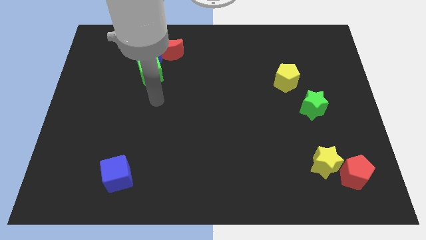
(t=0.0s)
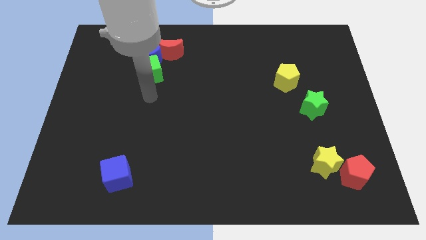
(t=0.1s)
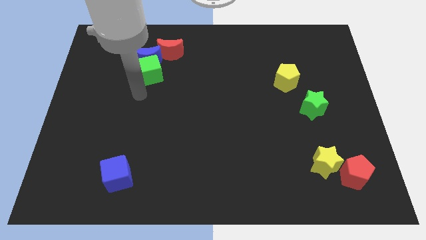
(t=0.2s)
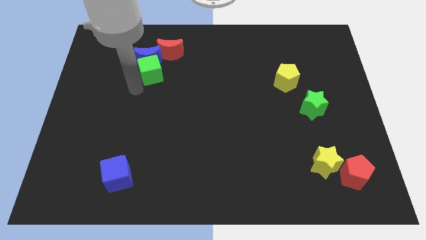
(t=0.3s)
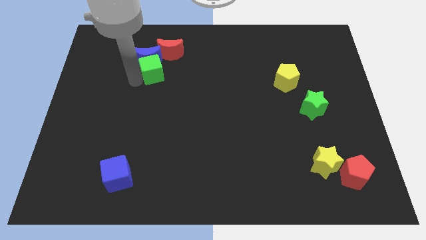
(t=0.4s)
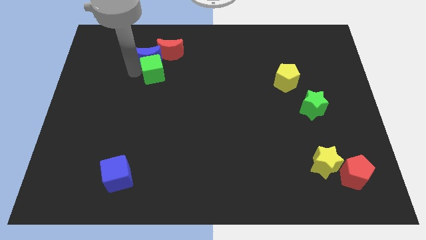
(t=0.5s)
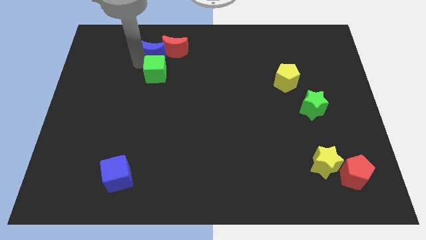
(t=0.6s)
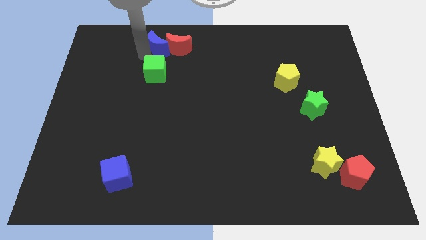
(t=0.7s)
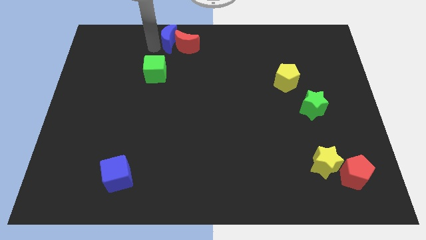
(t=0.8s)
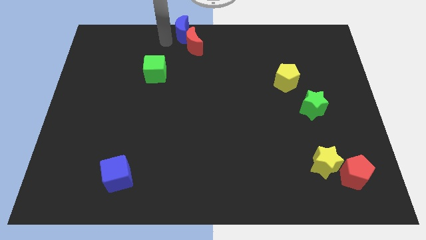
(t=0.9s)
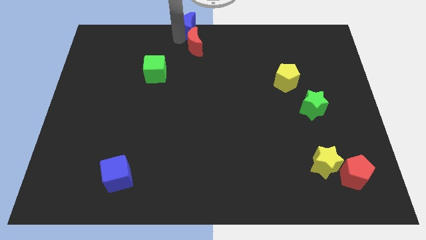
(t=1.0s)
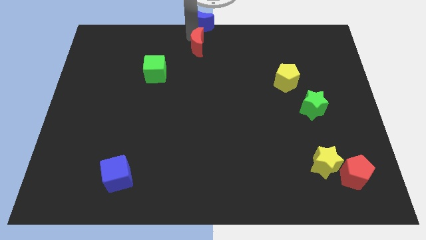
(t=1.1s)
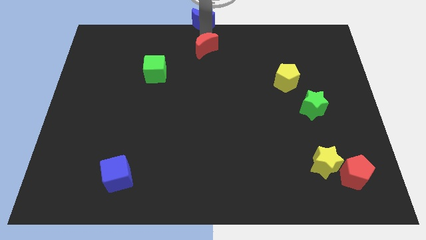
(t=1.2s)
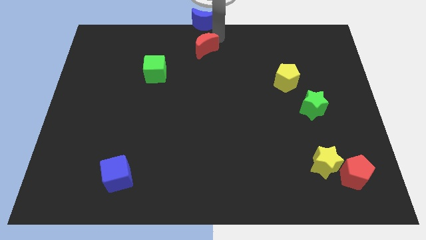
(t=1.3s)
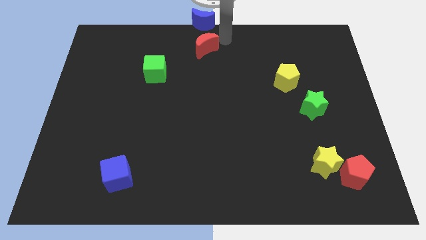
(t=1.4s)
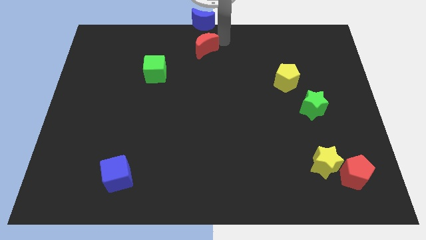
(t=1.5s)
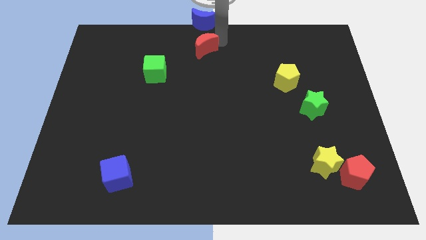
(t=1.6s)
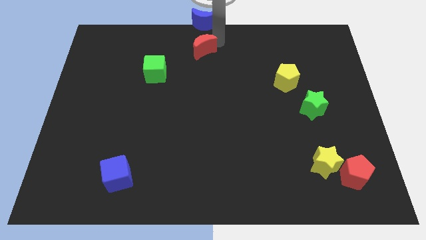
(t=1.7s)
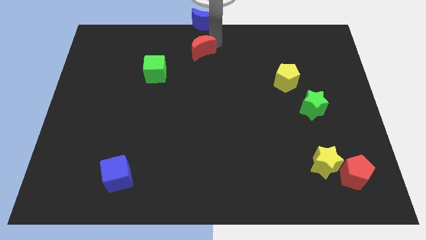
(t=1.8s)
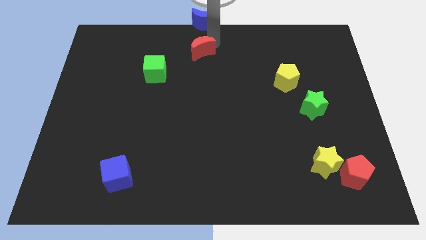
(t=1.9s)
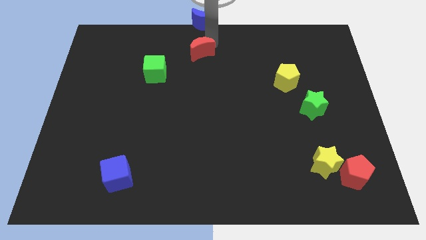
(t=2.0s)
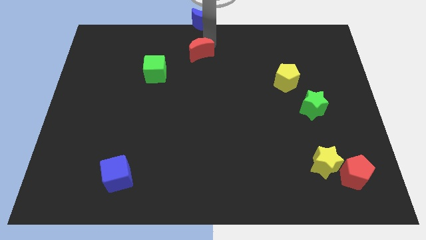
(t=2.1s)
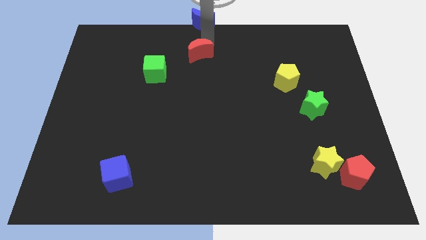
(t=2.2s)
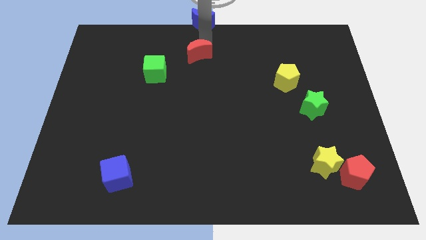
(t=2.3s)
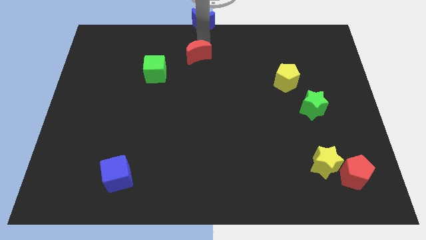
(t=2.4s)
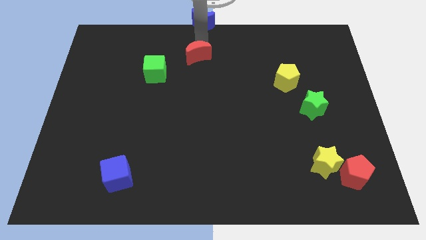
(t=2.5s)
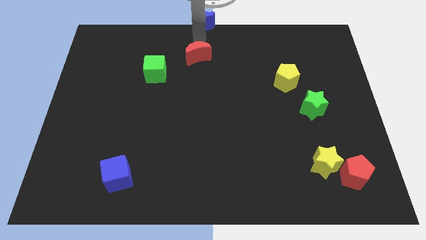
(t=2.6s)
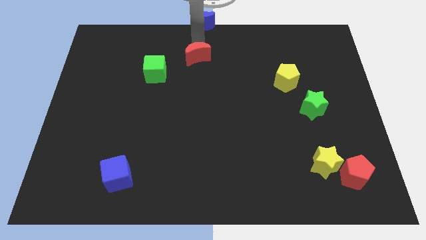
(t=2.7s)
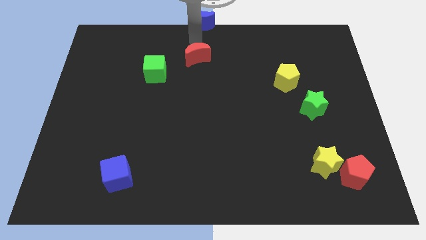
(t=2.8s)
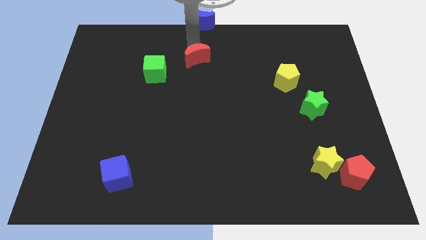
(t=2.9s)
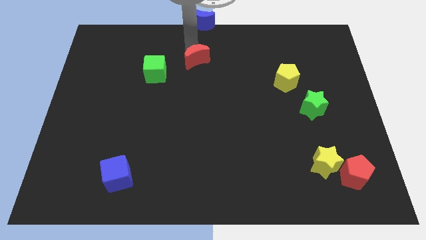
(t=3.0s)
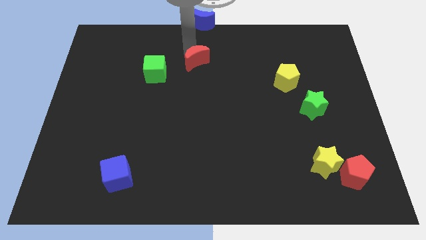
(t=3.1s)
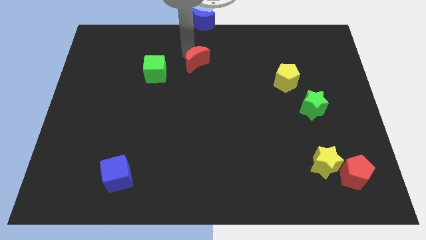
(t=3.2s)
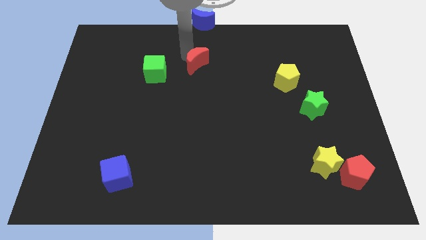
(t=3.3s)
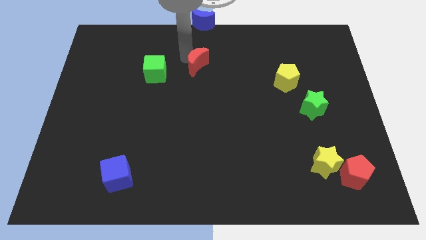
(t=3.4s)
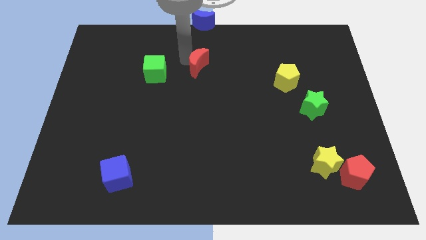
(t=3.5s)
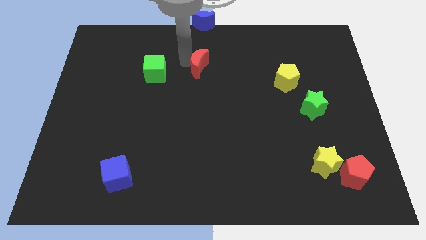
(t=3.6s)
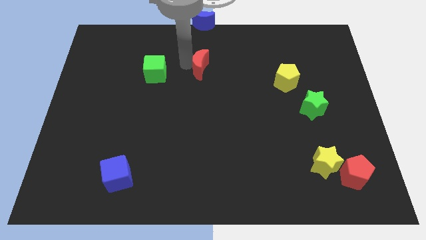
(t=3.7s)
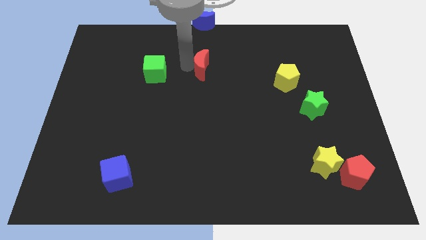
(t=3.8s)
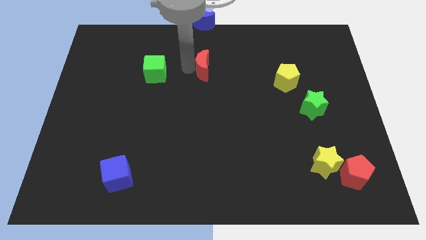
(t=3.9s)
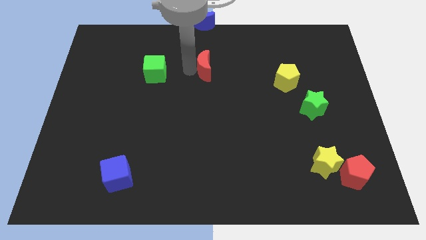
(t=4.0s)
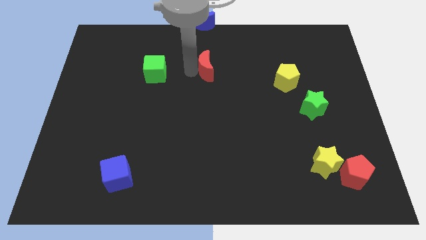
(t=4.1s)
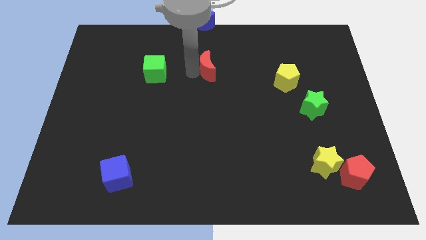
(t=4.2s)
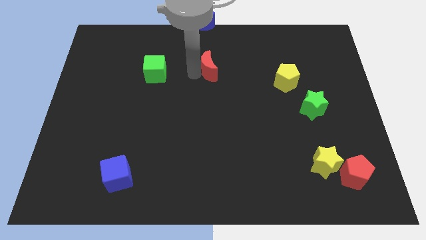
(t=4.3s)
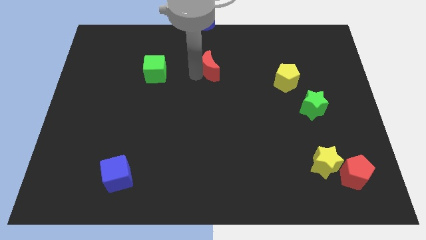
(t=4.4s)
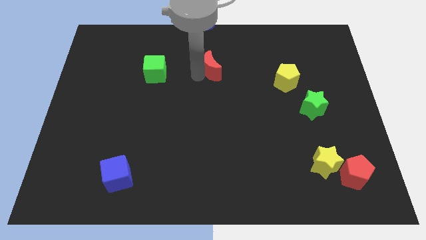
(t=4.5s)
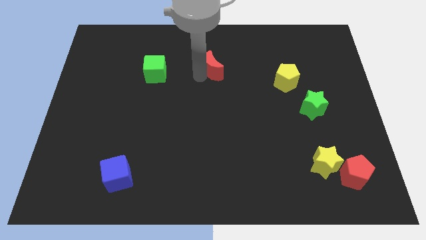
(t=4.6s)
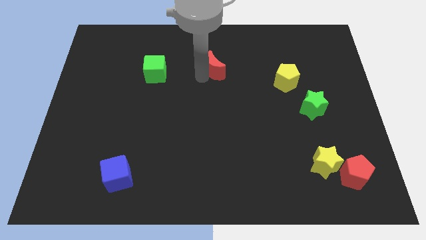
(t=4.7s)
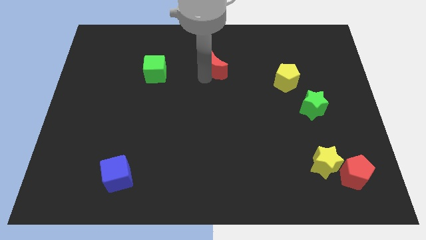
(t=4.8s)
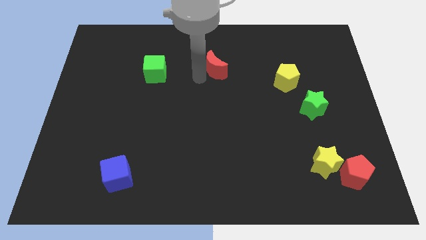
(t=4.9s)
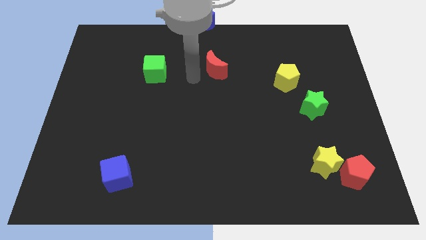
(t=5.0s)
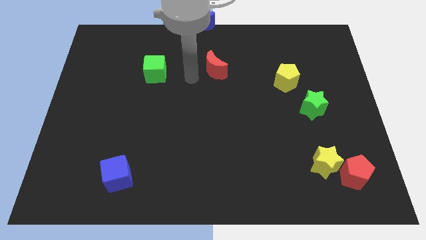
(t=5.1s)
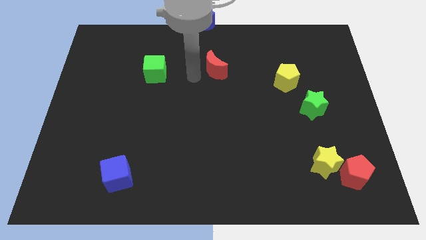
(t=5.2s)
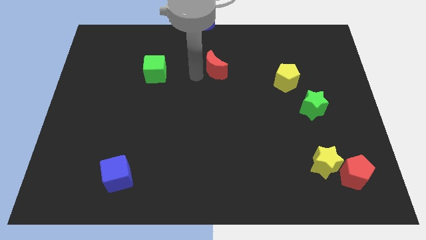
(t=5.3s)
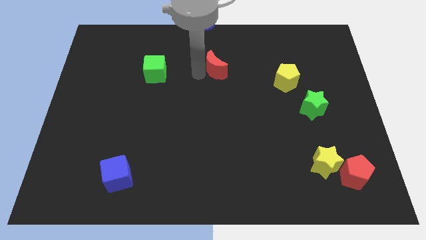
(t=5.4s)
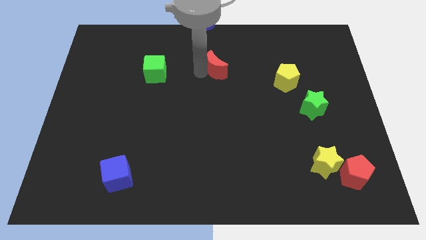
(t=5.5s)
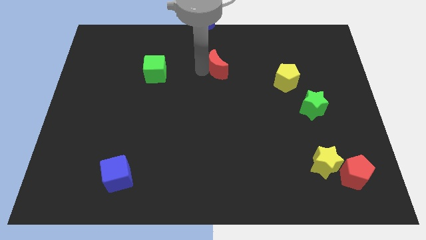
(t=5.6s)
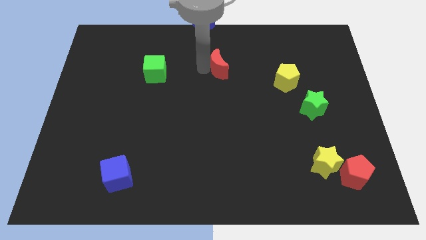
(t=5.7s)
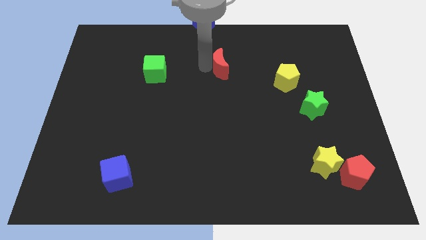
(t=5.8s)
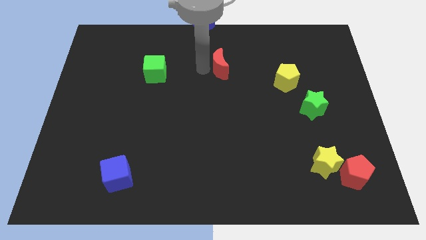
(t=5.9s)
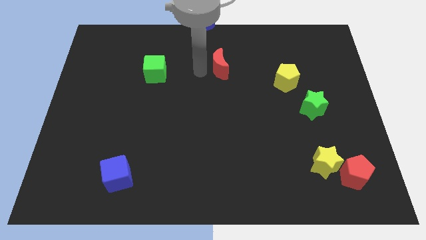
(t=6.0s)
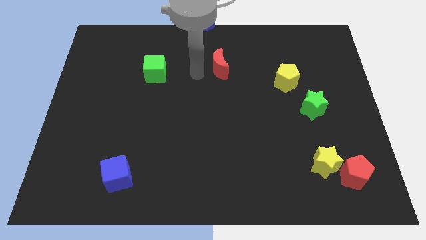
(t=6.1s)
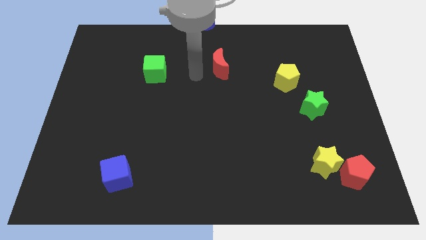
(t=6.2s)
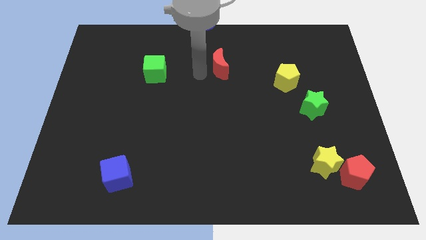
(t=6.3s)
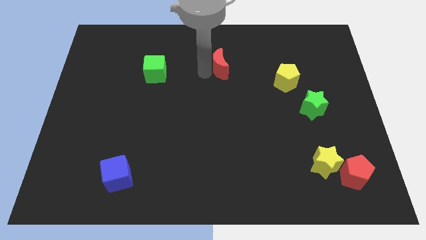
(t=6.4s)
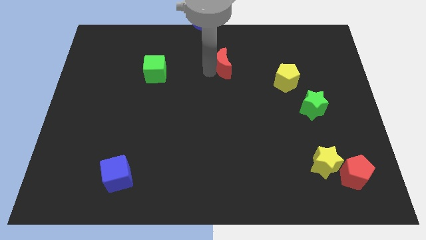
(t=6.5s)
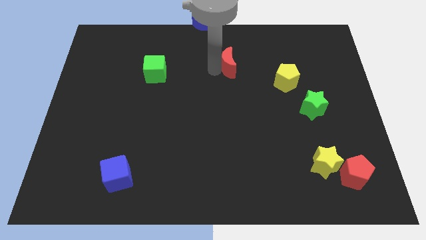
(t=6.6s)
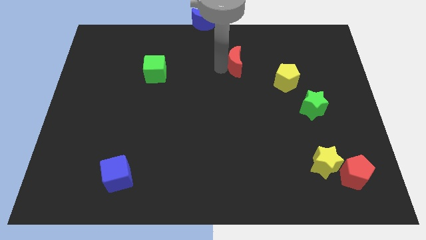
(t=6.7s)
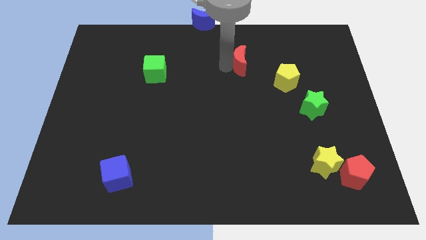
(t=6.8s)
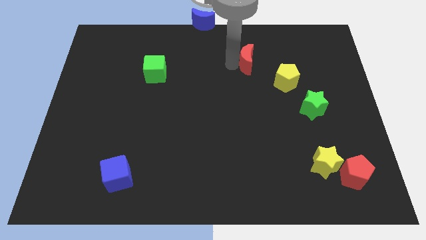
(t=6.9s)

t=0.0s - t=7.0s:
slide the red moon to the top left side of the yellow pentagon

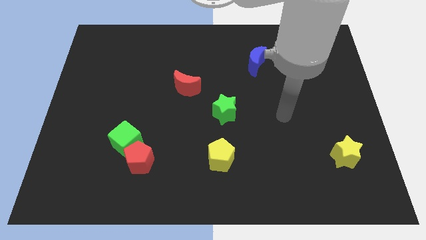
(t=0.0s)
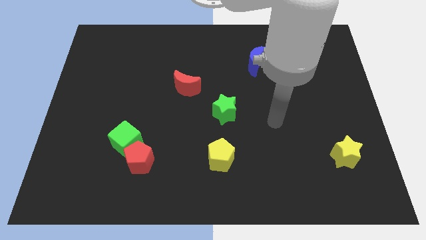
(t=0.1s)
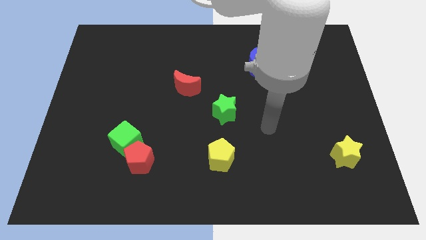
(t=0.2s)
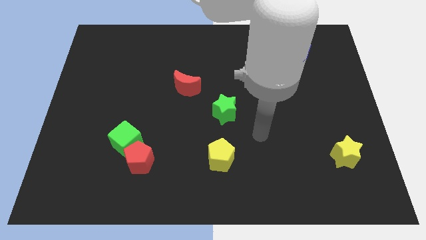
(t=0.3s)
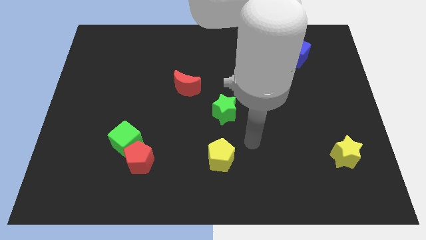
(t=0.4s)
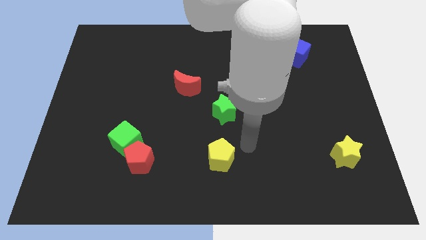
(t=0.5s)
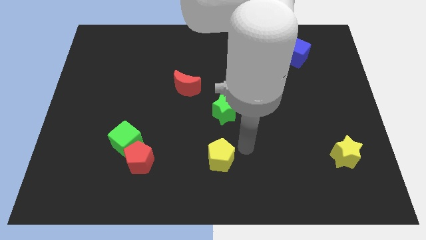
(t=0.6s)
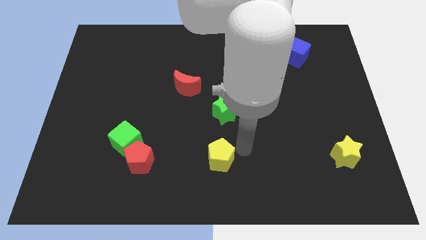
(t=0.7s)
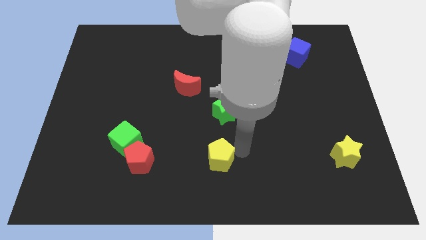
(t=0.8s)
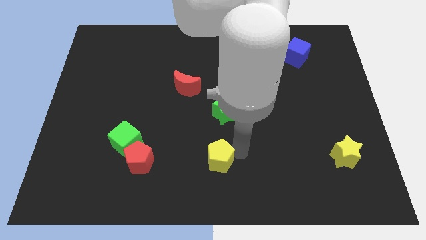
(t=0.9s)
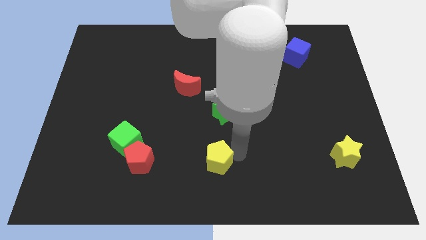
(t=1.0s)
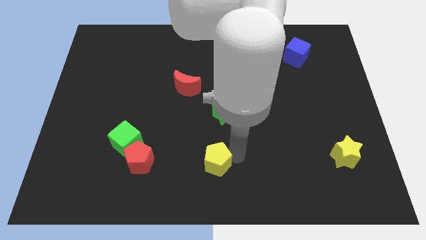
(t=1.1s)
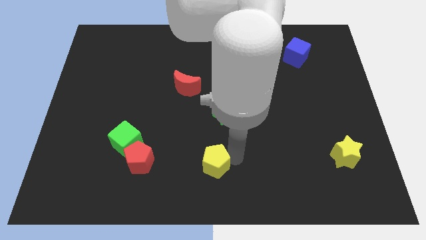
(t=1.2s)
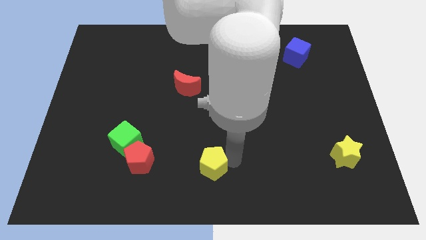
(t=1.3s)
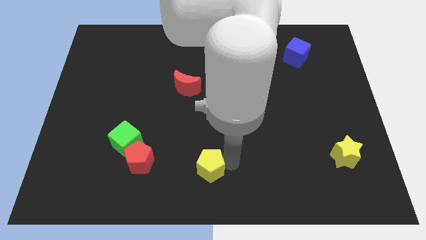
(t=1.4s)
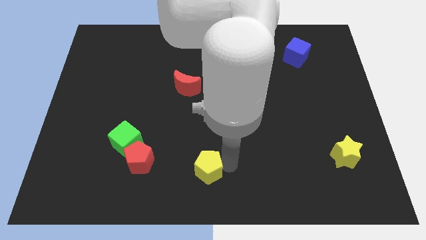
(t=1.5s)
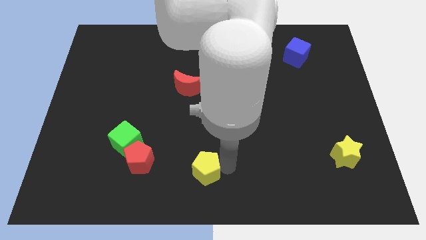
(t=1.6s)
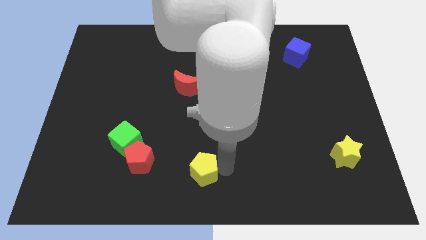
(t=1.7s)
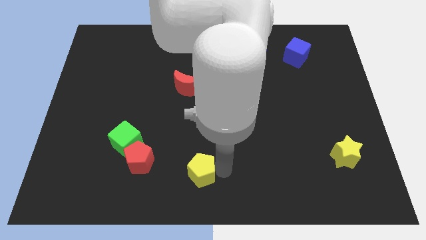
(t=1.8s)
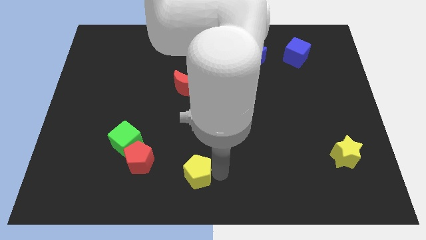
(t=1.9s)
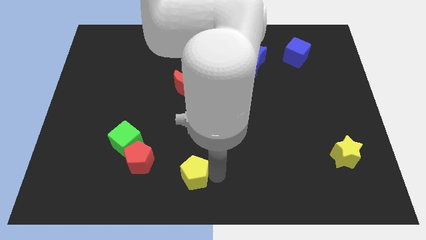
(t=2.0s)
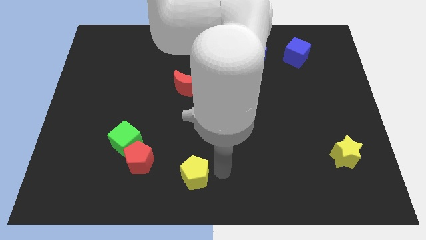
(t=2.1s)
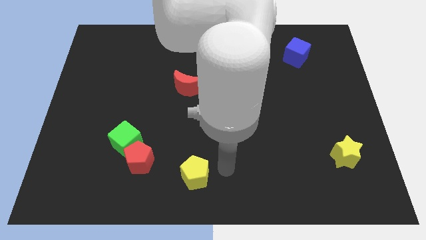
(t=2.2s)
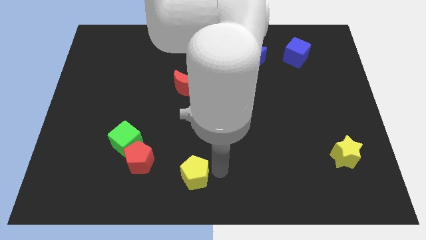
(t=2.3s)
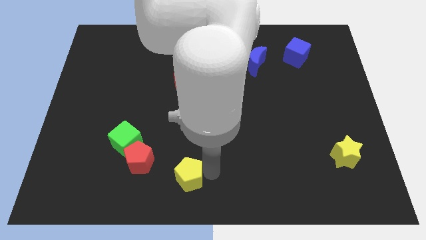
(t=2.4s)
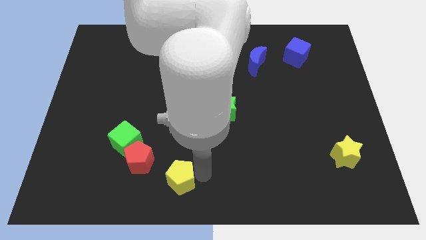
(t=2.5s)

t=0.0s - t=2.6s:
slide the yellow pentagon to the bottom right of the red pentagon
